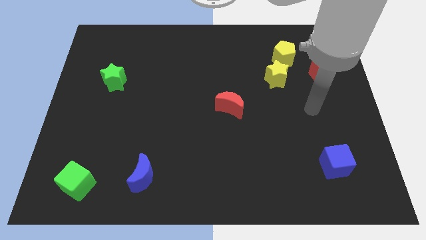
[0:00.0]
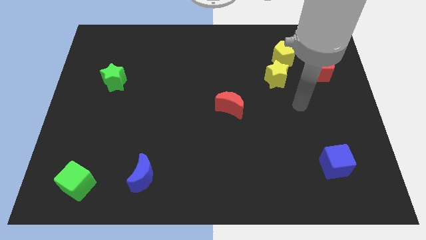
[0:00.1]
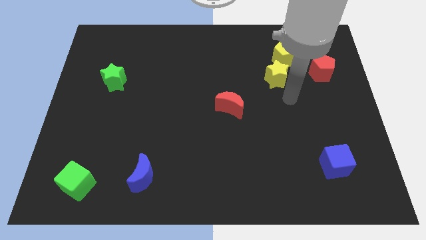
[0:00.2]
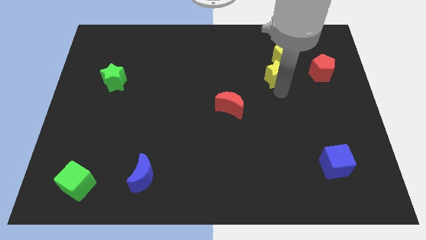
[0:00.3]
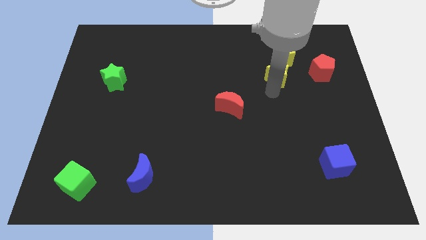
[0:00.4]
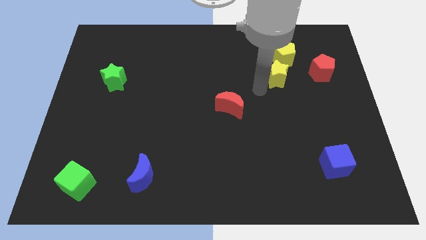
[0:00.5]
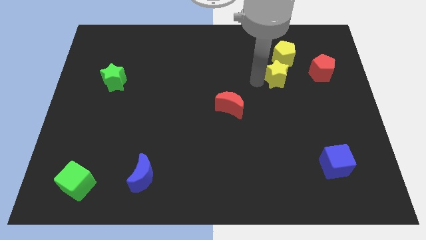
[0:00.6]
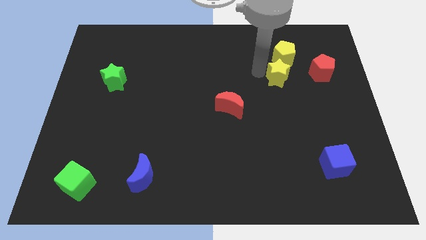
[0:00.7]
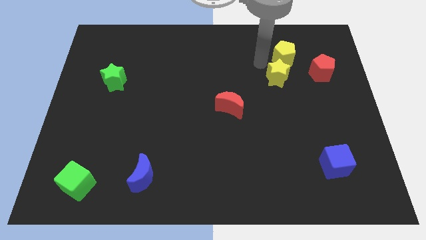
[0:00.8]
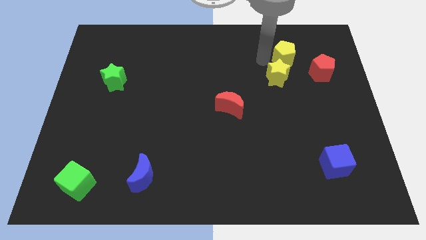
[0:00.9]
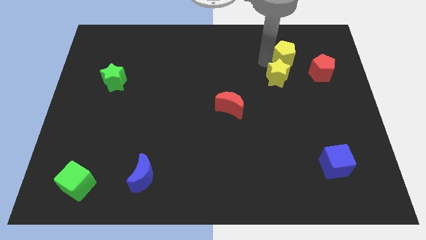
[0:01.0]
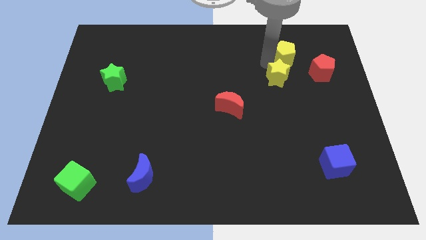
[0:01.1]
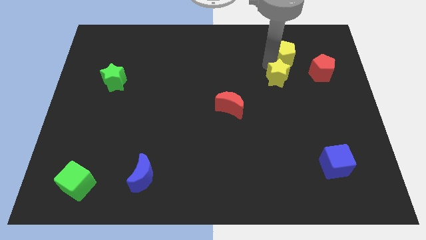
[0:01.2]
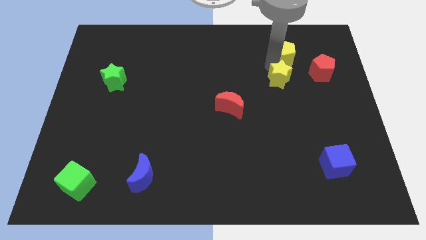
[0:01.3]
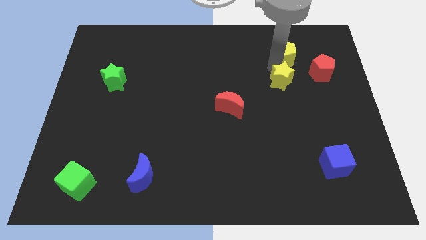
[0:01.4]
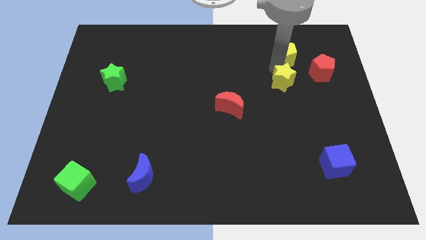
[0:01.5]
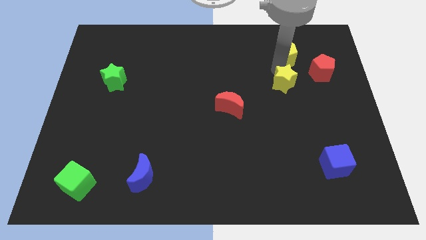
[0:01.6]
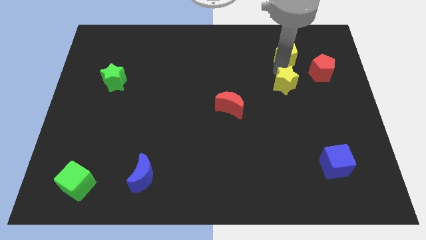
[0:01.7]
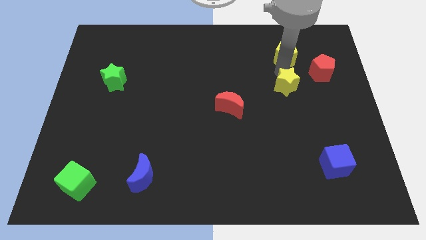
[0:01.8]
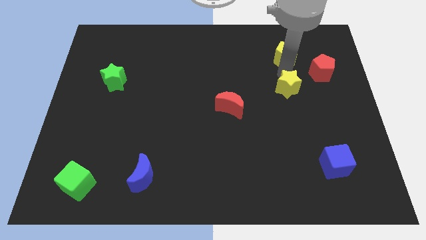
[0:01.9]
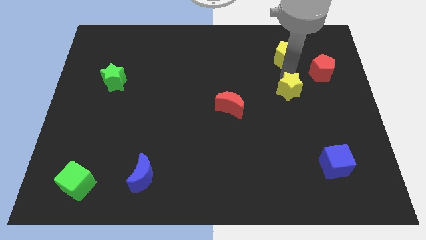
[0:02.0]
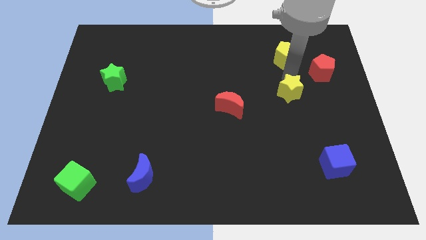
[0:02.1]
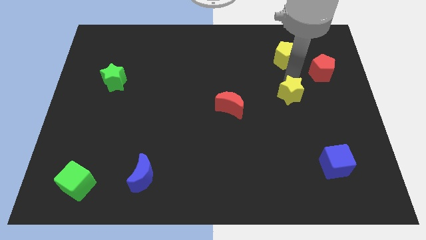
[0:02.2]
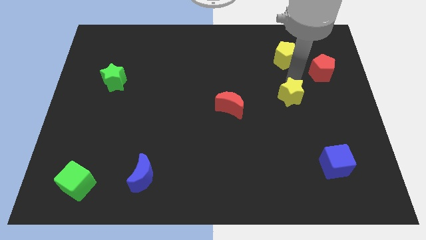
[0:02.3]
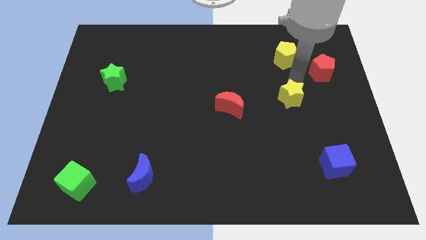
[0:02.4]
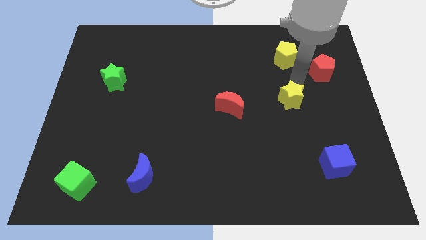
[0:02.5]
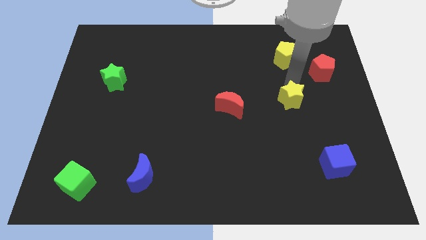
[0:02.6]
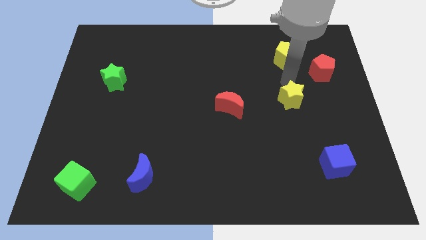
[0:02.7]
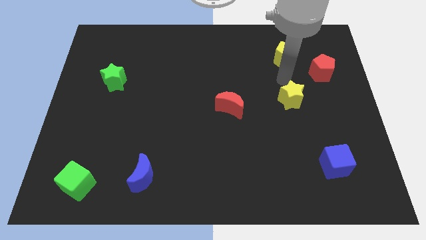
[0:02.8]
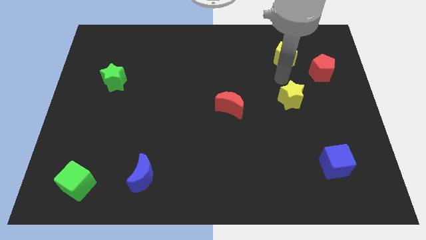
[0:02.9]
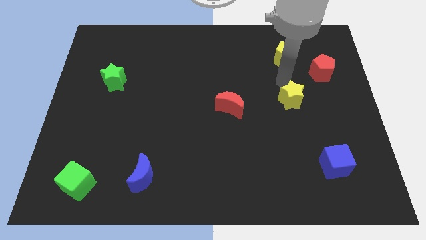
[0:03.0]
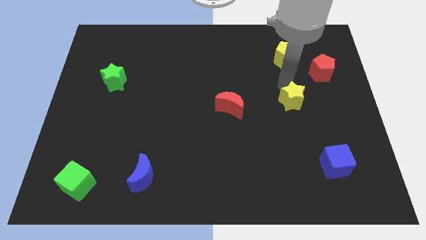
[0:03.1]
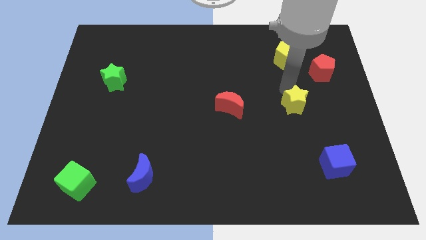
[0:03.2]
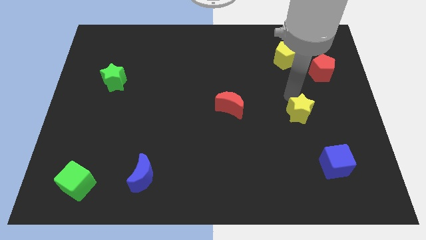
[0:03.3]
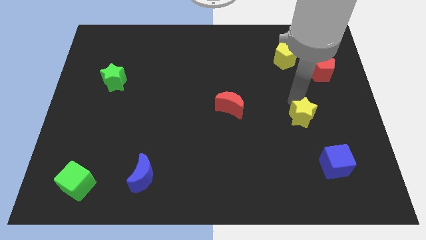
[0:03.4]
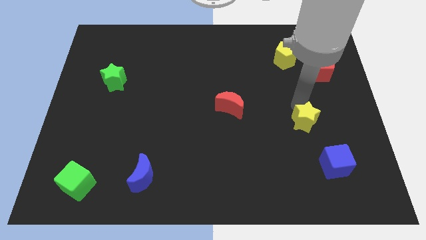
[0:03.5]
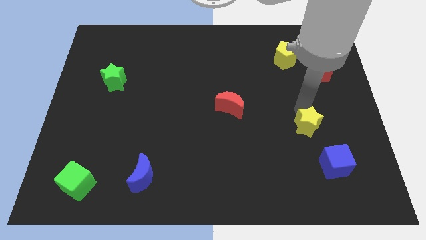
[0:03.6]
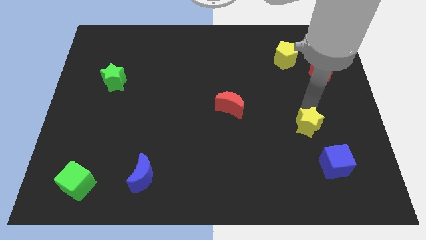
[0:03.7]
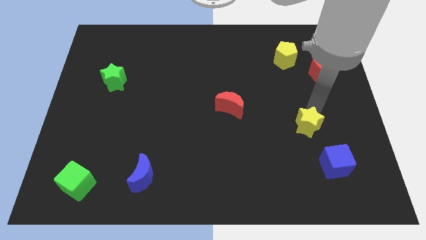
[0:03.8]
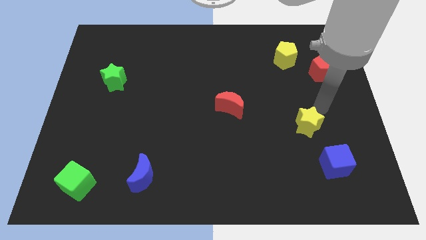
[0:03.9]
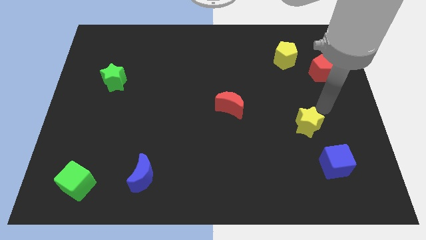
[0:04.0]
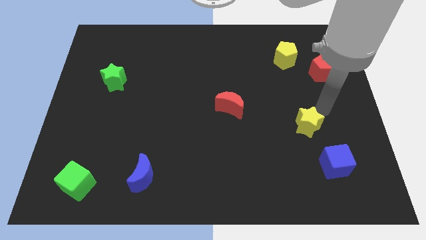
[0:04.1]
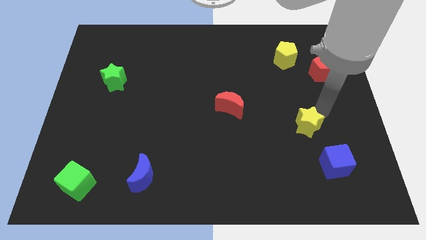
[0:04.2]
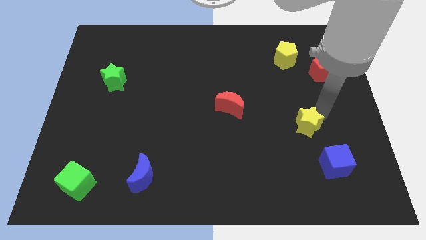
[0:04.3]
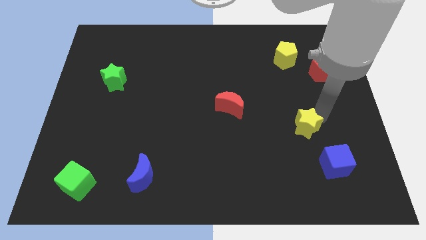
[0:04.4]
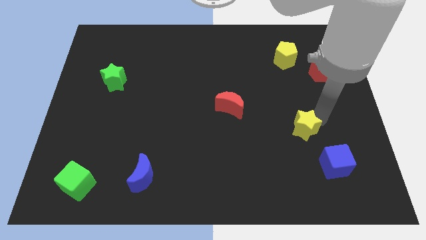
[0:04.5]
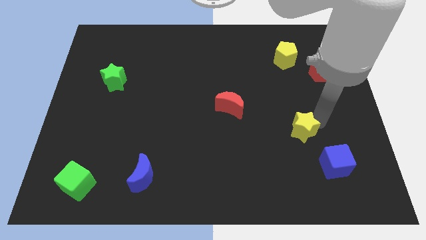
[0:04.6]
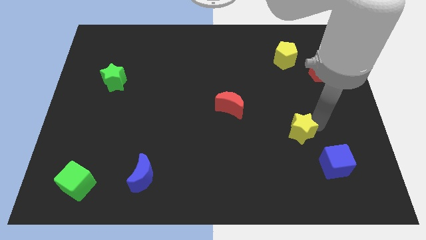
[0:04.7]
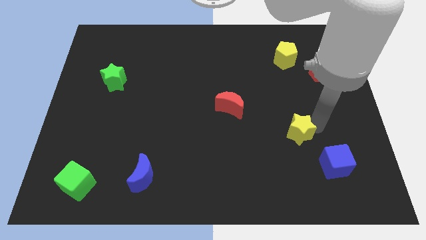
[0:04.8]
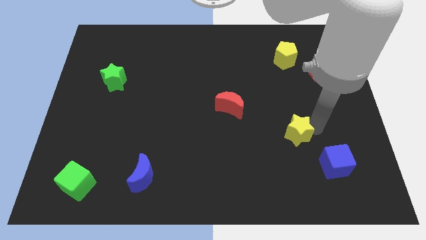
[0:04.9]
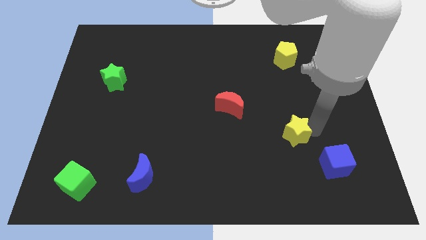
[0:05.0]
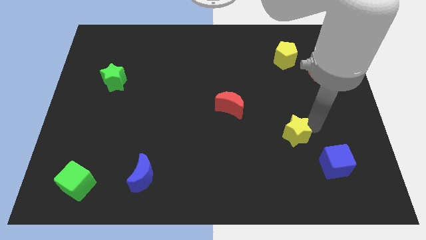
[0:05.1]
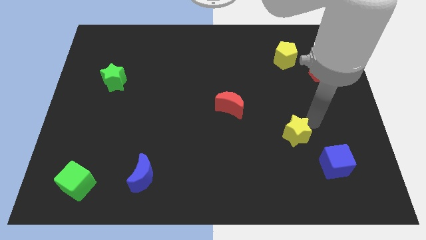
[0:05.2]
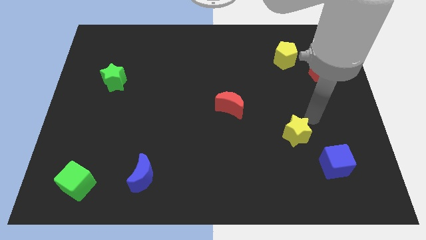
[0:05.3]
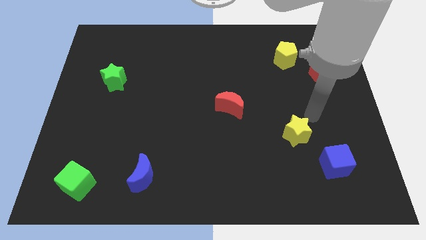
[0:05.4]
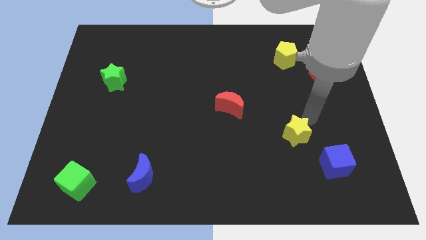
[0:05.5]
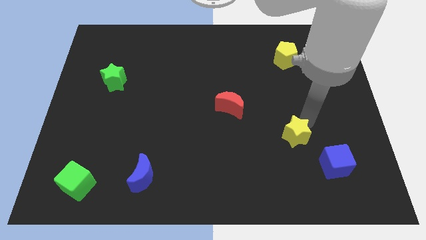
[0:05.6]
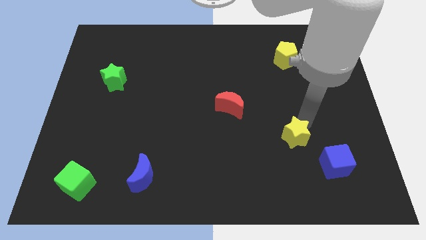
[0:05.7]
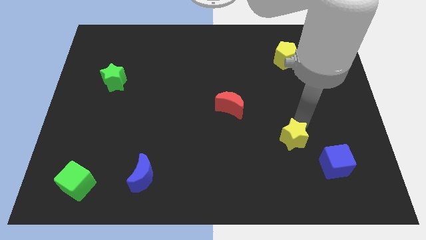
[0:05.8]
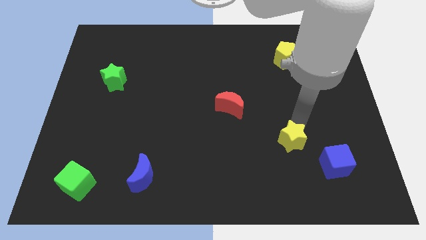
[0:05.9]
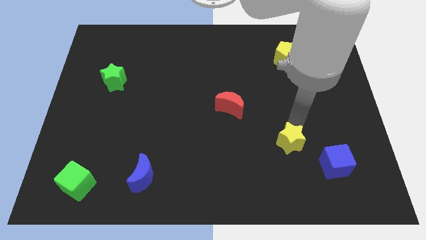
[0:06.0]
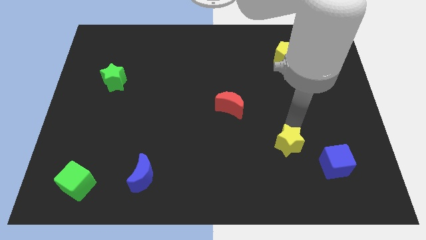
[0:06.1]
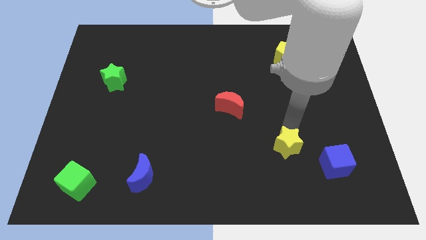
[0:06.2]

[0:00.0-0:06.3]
put the yellow star to the left side of the blue cube

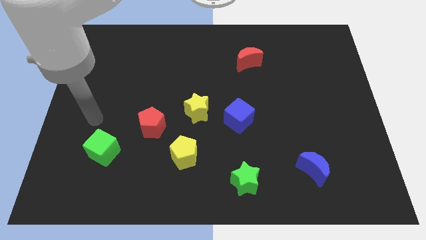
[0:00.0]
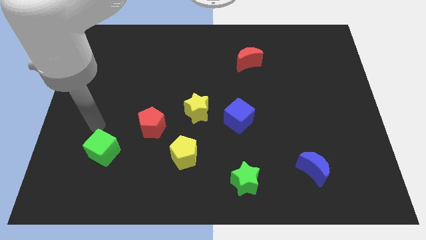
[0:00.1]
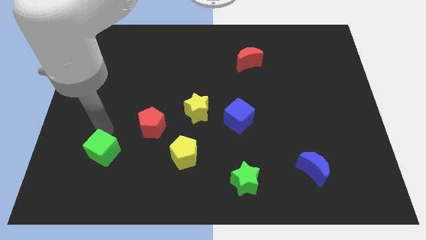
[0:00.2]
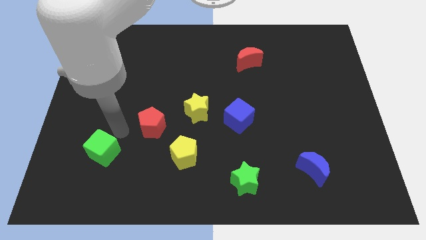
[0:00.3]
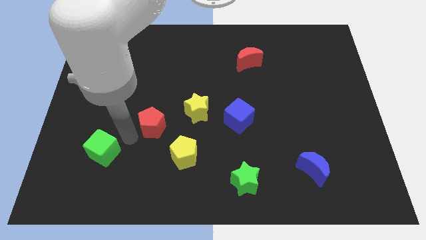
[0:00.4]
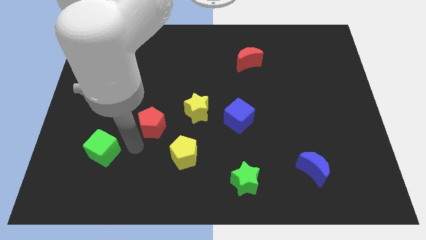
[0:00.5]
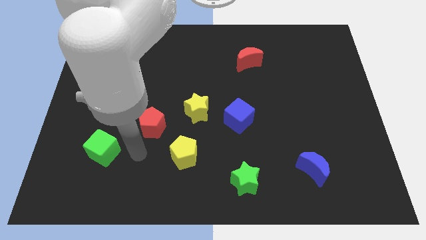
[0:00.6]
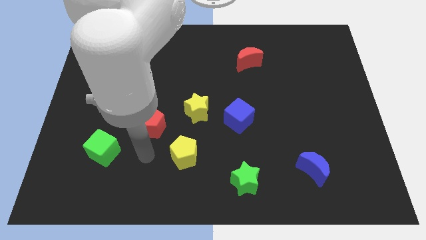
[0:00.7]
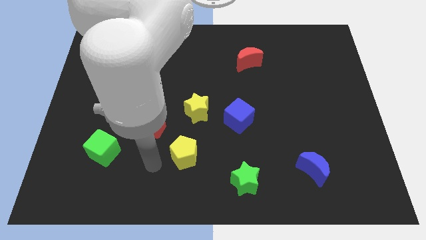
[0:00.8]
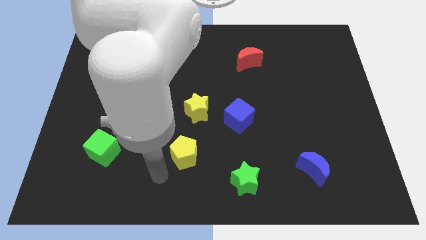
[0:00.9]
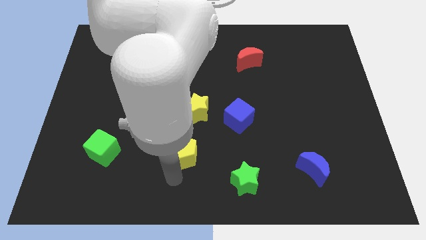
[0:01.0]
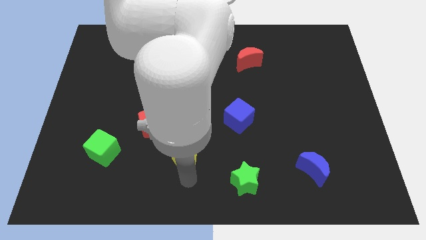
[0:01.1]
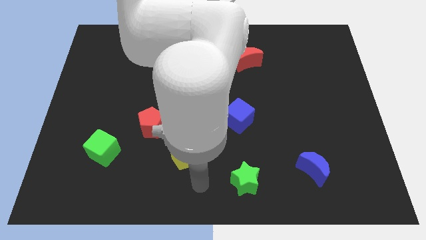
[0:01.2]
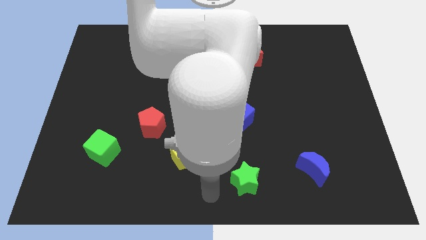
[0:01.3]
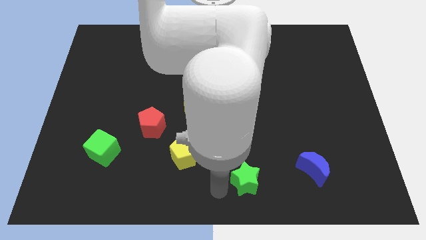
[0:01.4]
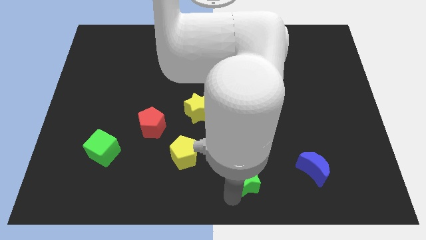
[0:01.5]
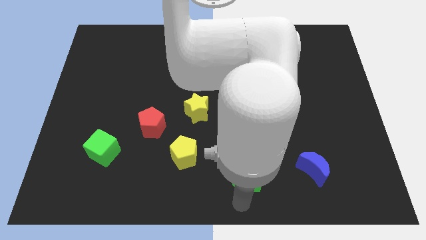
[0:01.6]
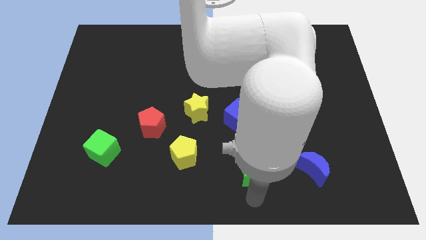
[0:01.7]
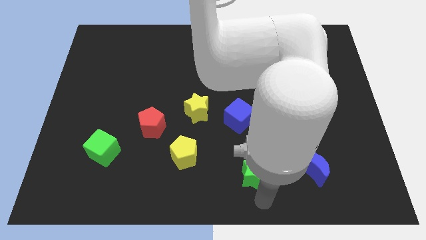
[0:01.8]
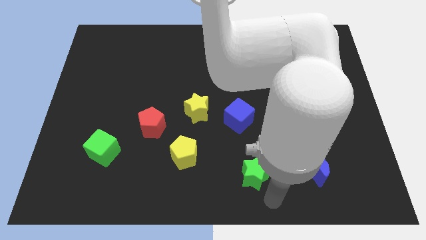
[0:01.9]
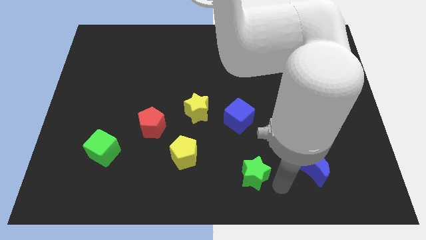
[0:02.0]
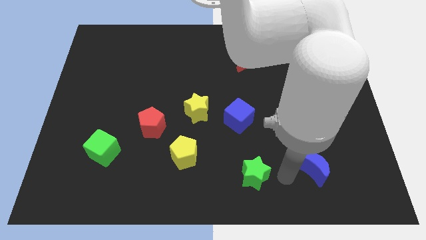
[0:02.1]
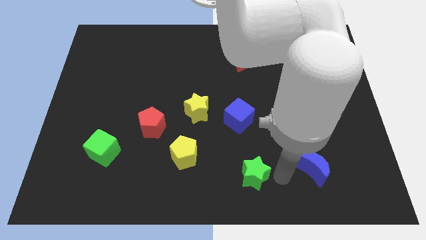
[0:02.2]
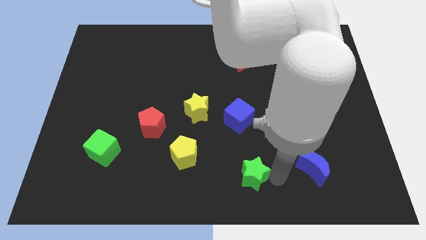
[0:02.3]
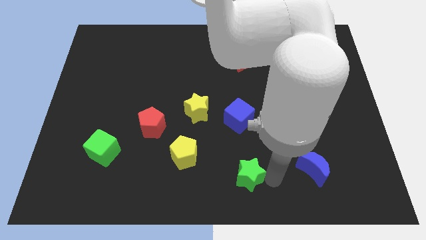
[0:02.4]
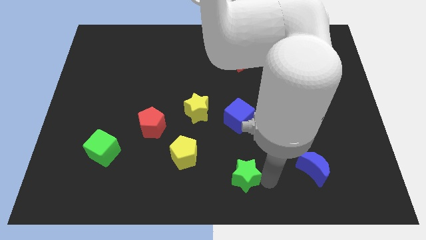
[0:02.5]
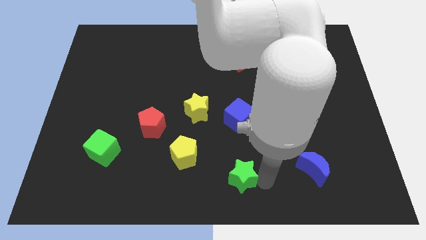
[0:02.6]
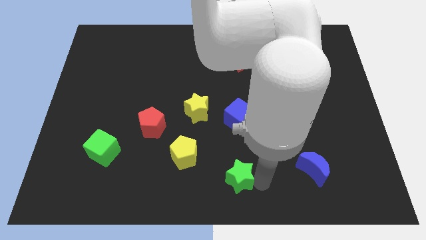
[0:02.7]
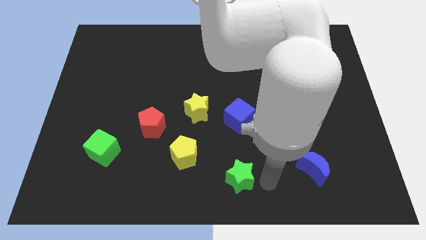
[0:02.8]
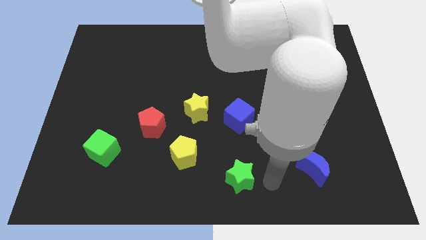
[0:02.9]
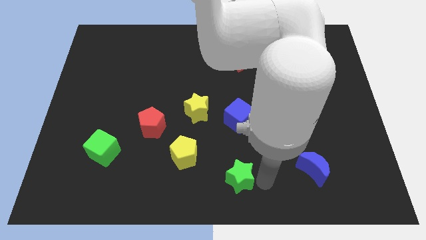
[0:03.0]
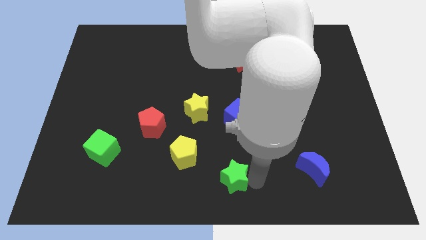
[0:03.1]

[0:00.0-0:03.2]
move the green star to the bottom right side of the yellow pentagon
